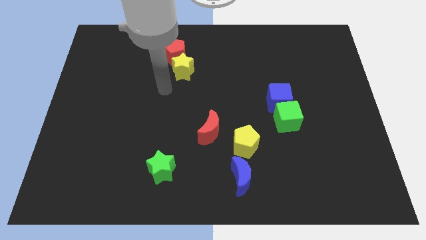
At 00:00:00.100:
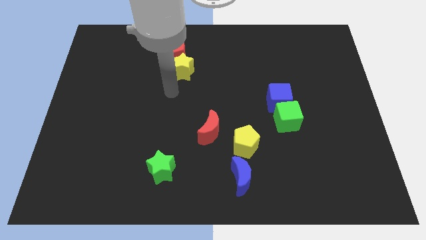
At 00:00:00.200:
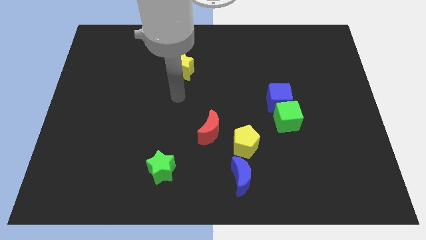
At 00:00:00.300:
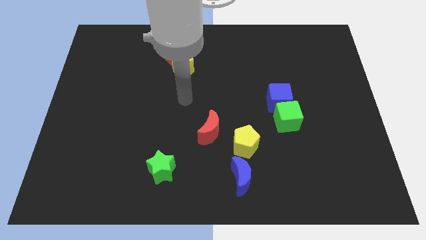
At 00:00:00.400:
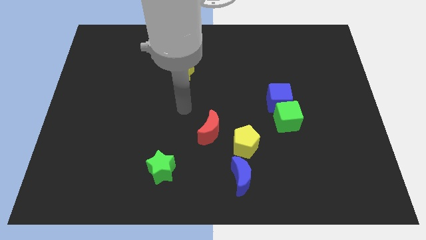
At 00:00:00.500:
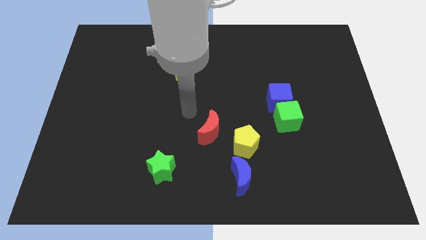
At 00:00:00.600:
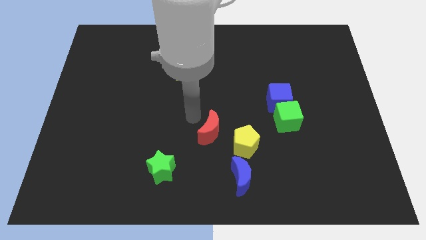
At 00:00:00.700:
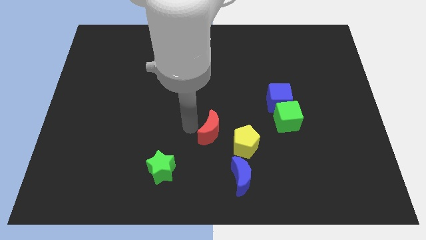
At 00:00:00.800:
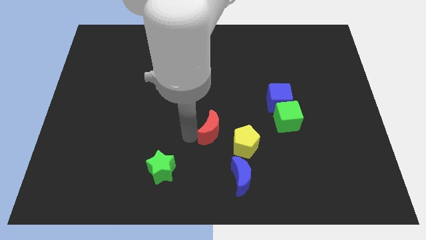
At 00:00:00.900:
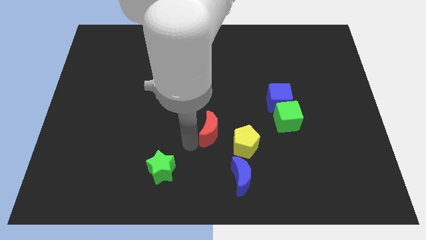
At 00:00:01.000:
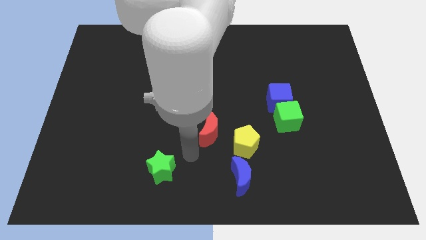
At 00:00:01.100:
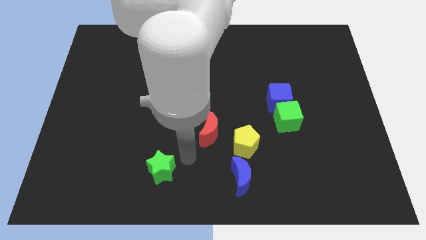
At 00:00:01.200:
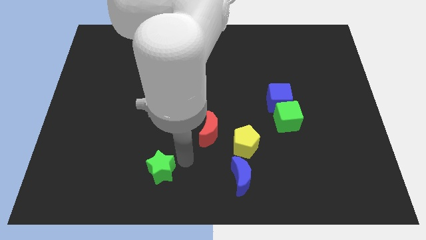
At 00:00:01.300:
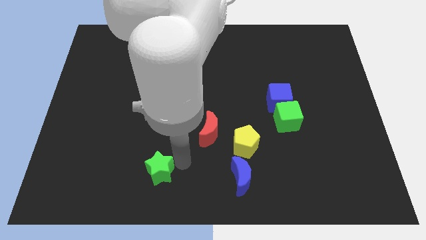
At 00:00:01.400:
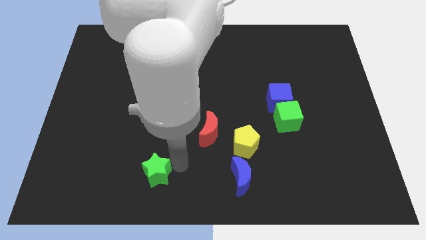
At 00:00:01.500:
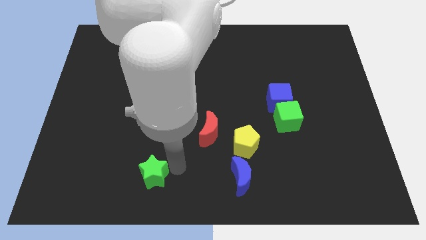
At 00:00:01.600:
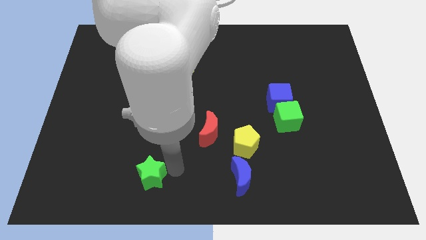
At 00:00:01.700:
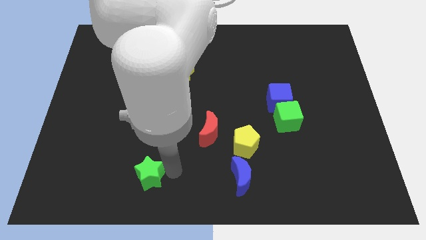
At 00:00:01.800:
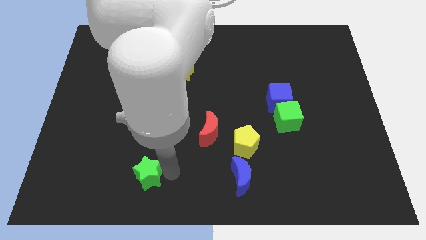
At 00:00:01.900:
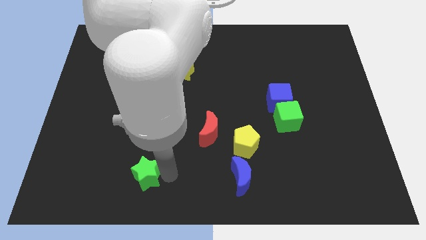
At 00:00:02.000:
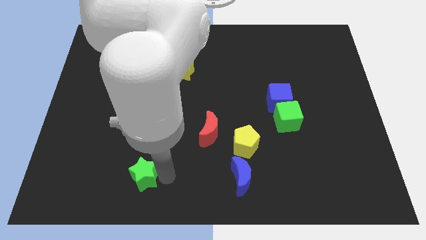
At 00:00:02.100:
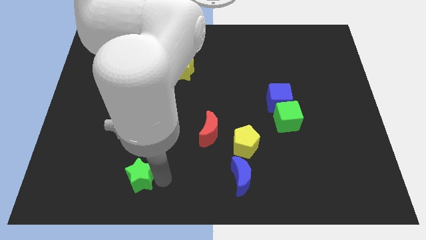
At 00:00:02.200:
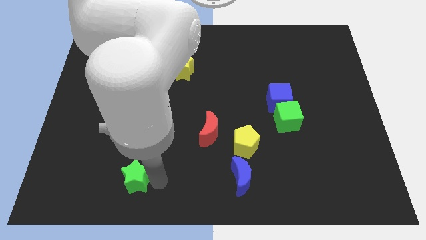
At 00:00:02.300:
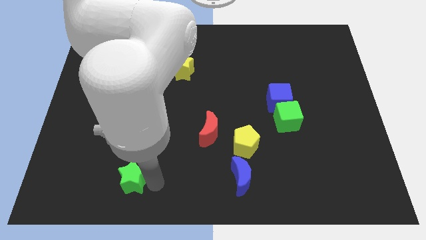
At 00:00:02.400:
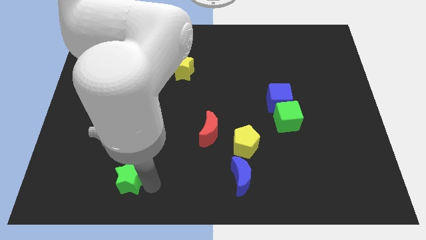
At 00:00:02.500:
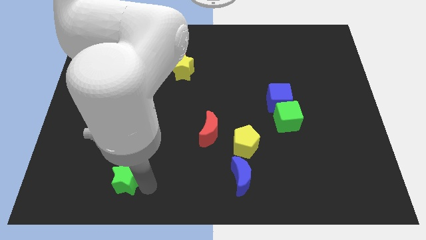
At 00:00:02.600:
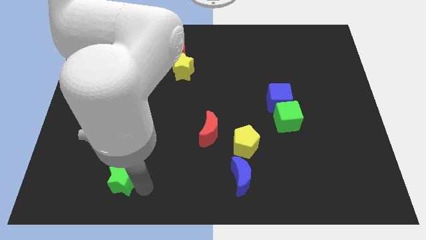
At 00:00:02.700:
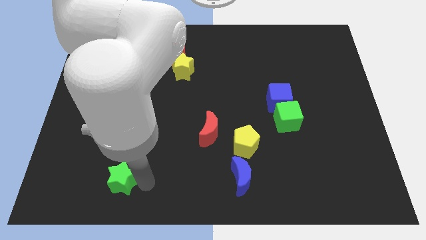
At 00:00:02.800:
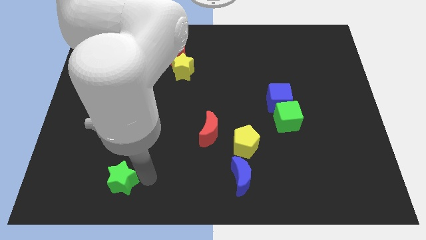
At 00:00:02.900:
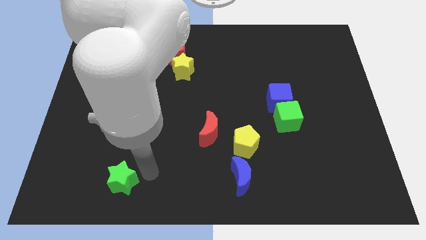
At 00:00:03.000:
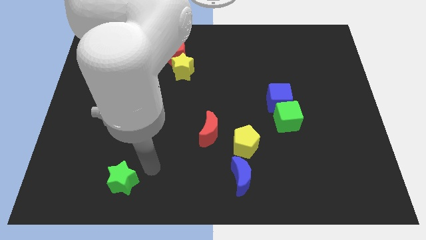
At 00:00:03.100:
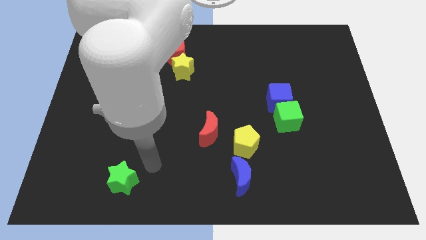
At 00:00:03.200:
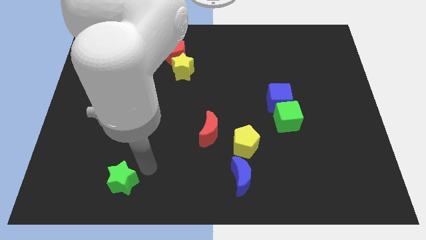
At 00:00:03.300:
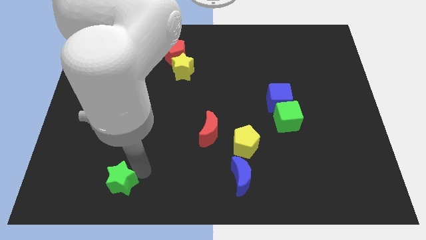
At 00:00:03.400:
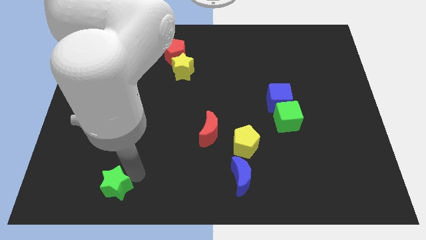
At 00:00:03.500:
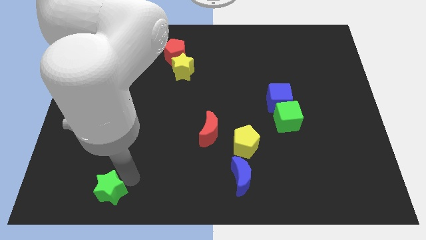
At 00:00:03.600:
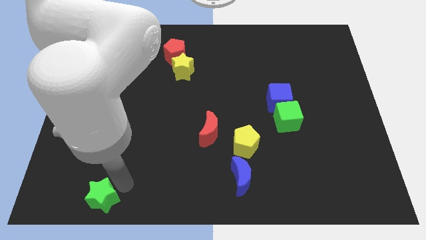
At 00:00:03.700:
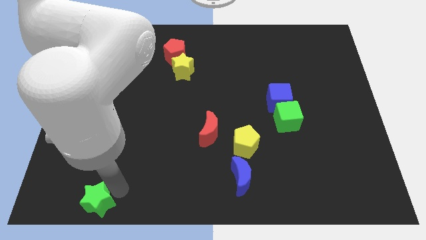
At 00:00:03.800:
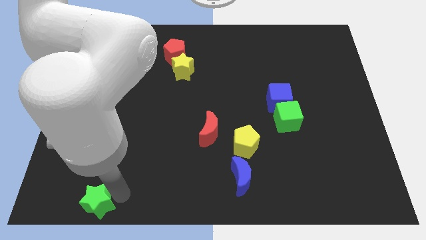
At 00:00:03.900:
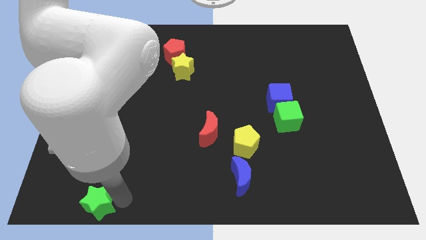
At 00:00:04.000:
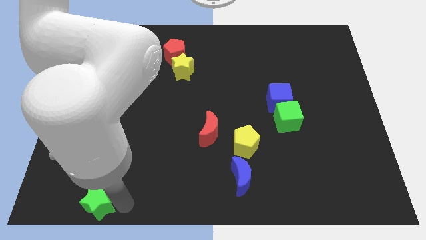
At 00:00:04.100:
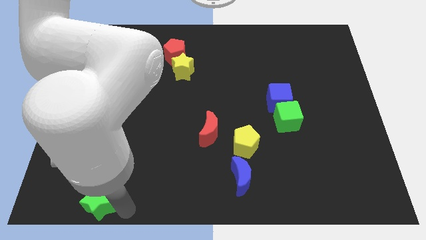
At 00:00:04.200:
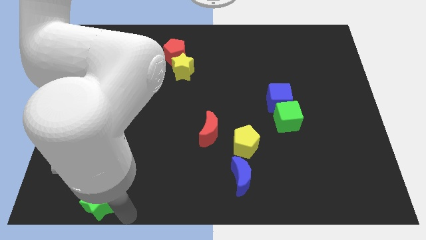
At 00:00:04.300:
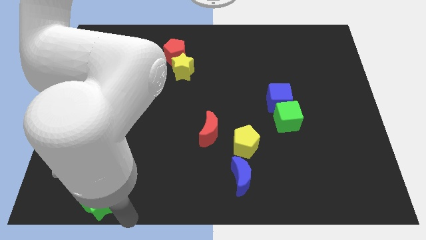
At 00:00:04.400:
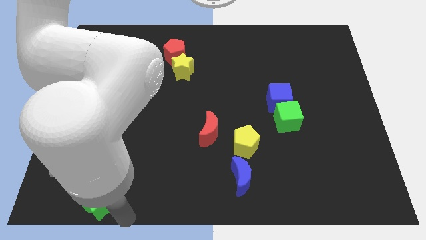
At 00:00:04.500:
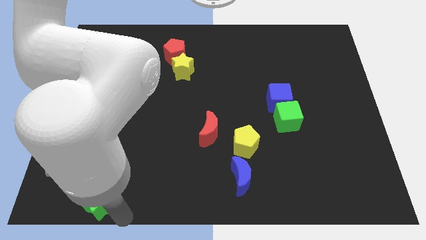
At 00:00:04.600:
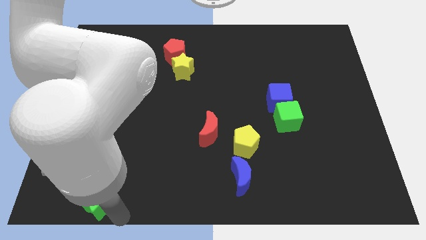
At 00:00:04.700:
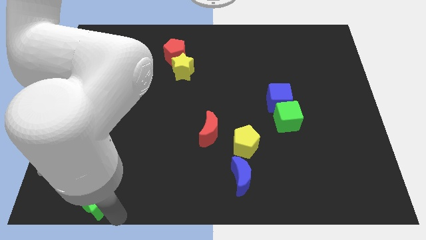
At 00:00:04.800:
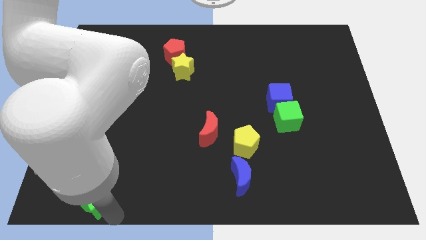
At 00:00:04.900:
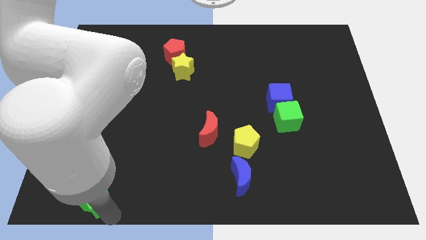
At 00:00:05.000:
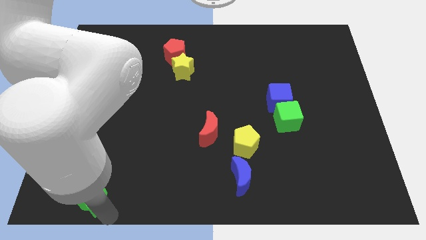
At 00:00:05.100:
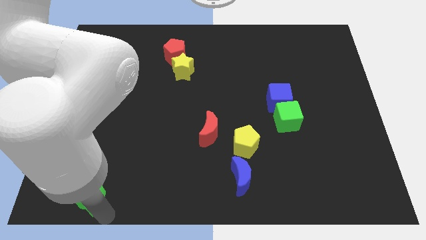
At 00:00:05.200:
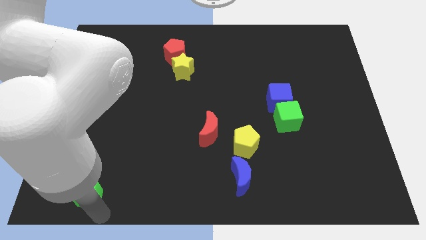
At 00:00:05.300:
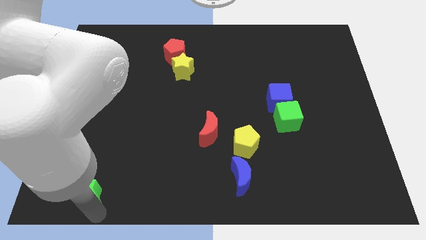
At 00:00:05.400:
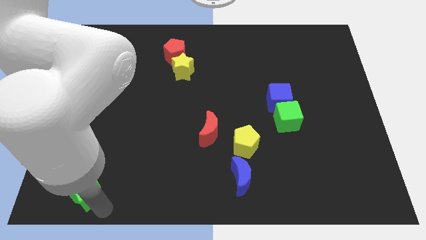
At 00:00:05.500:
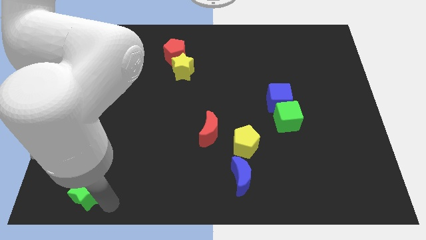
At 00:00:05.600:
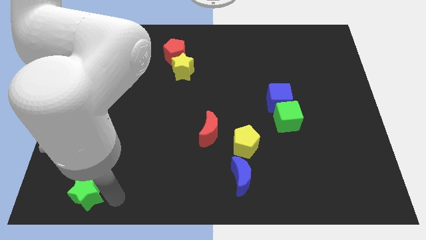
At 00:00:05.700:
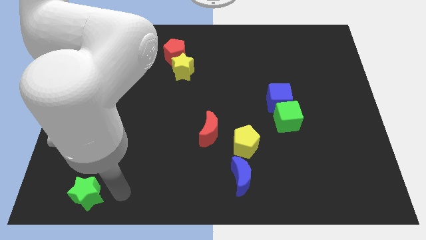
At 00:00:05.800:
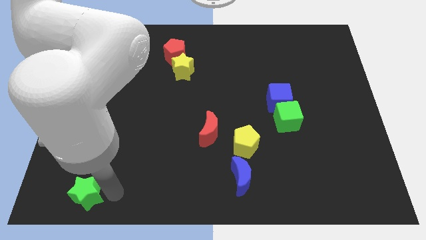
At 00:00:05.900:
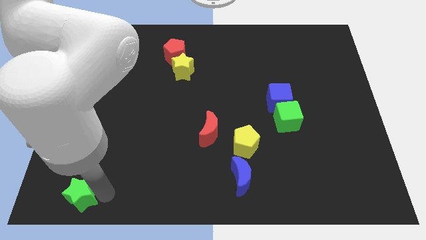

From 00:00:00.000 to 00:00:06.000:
put the green star to the bottom left of the board

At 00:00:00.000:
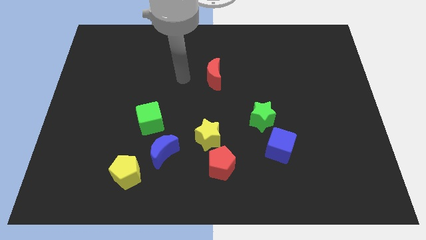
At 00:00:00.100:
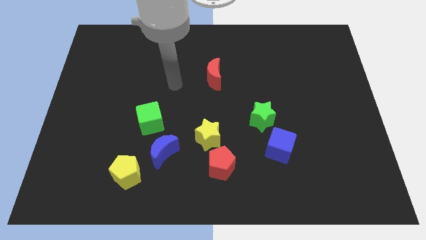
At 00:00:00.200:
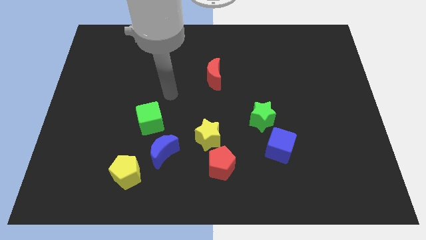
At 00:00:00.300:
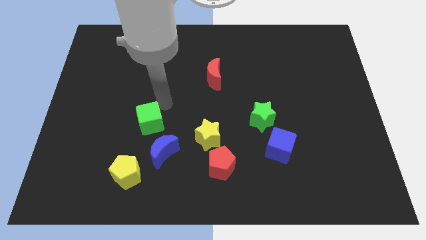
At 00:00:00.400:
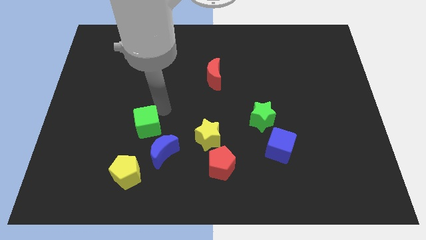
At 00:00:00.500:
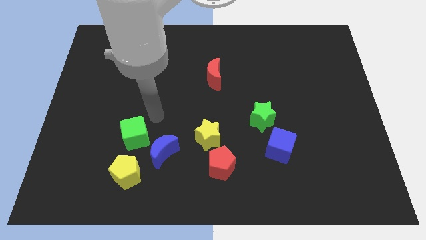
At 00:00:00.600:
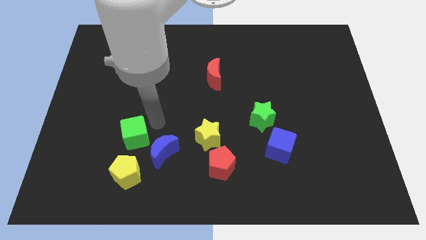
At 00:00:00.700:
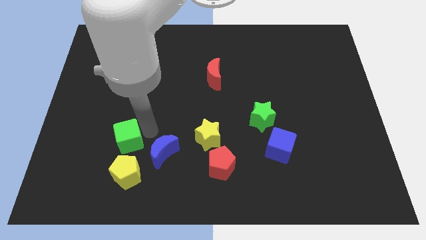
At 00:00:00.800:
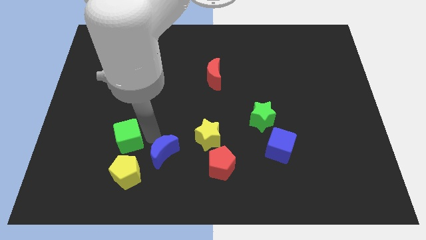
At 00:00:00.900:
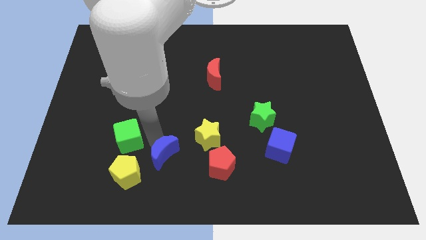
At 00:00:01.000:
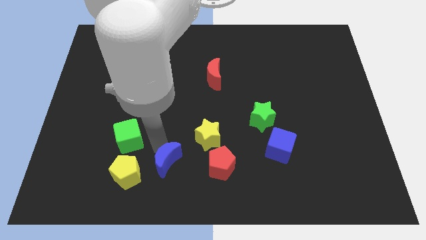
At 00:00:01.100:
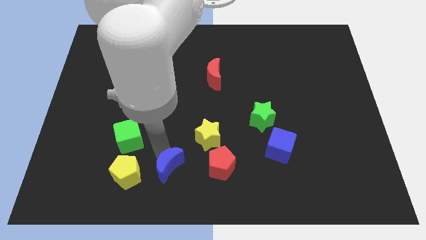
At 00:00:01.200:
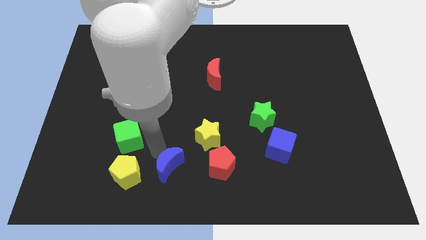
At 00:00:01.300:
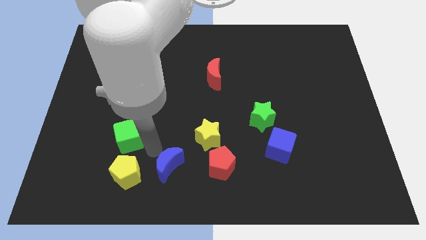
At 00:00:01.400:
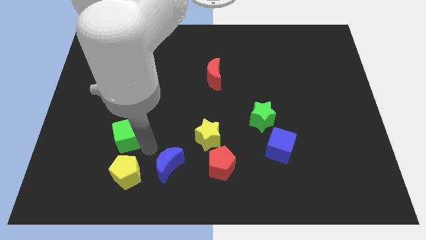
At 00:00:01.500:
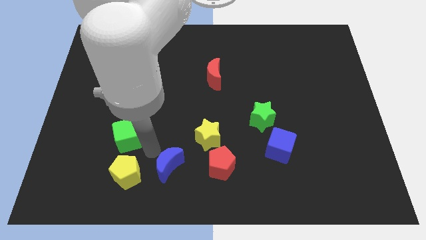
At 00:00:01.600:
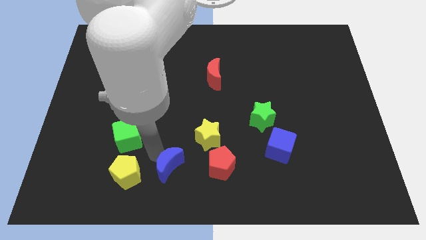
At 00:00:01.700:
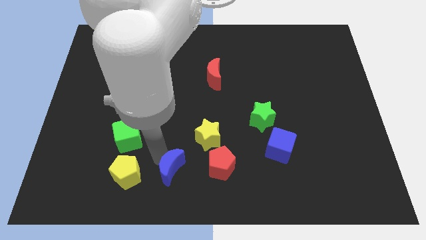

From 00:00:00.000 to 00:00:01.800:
push the blue moon to the bottom side
